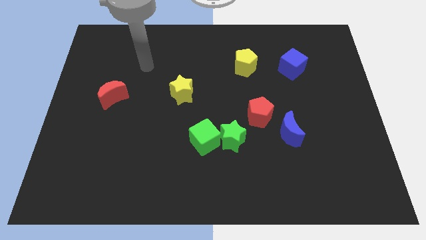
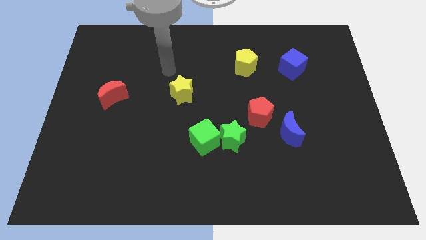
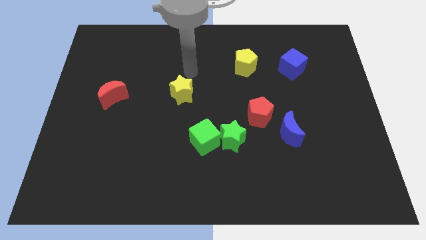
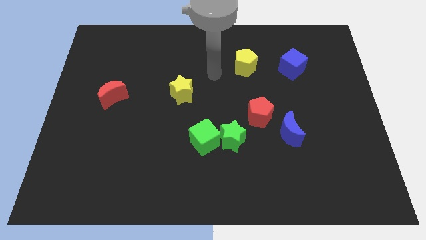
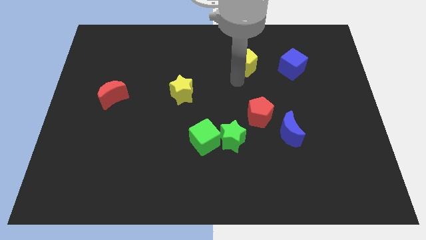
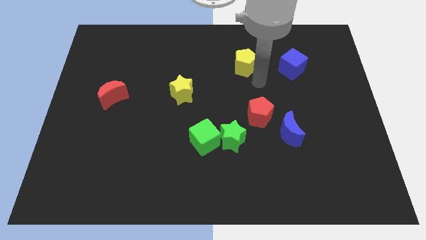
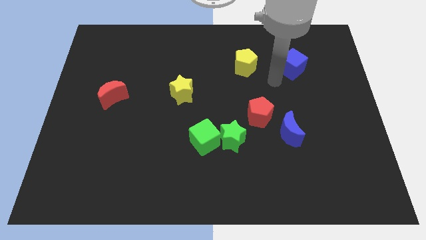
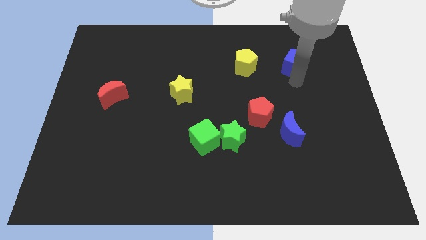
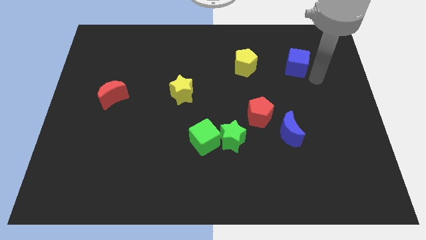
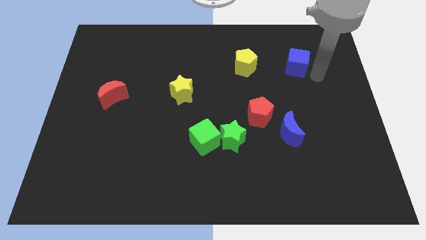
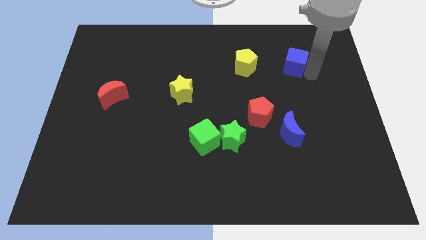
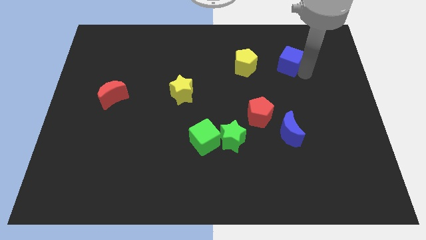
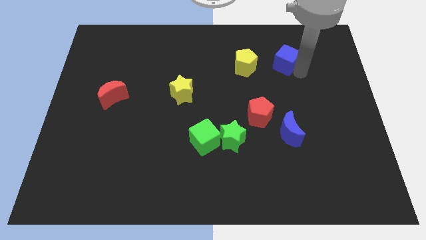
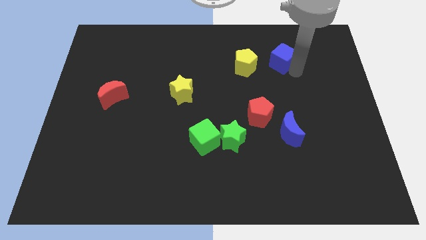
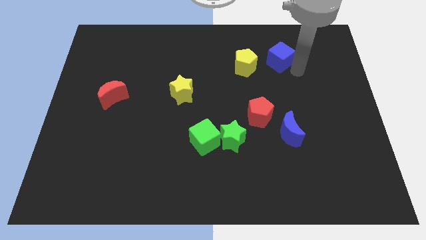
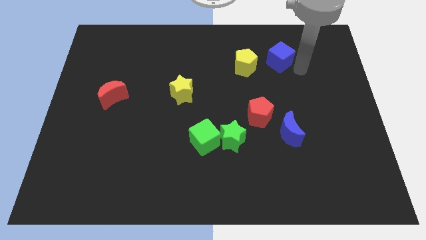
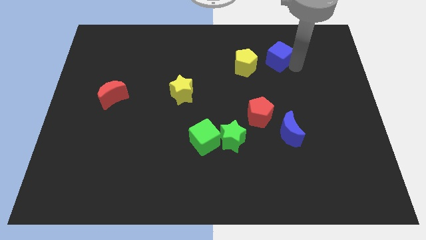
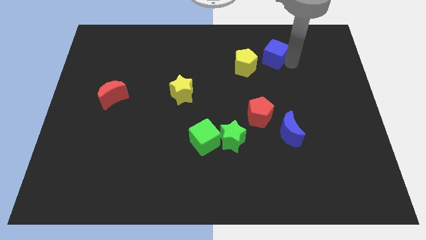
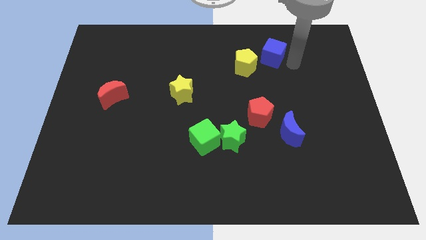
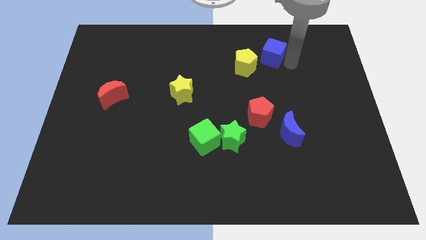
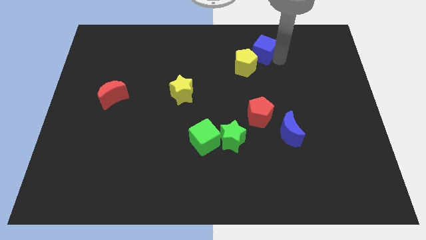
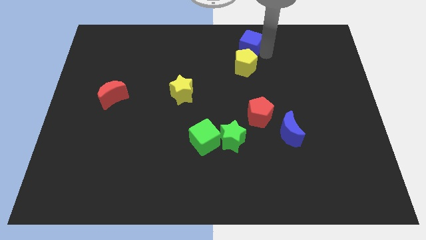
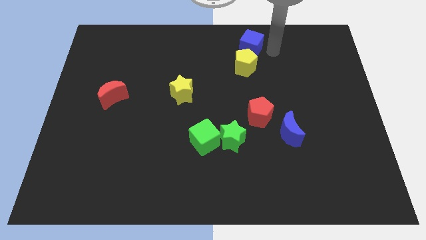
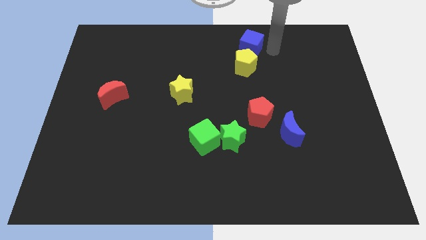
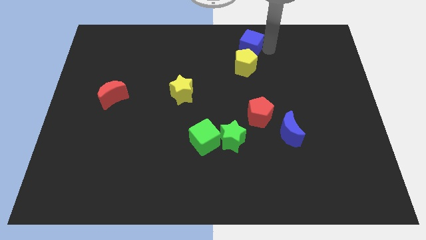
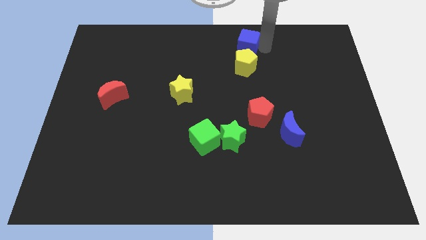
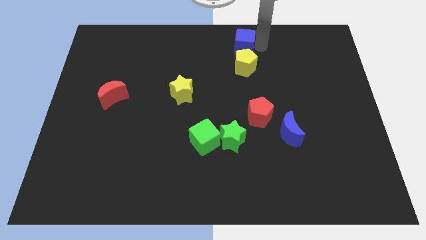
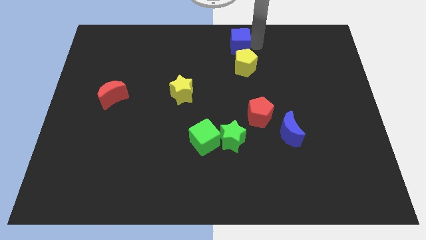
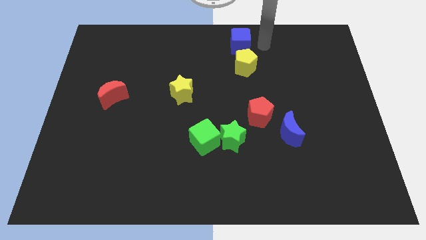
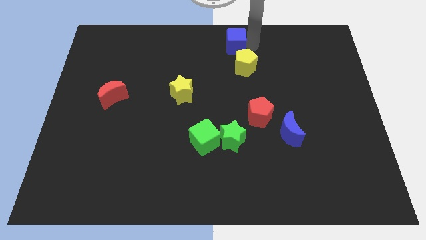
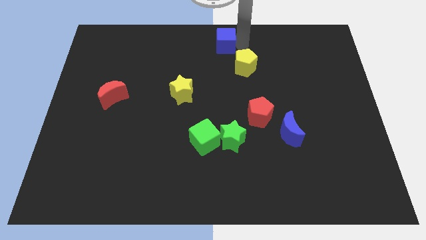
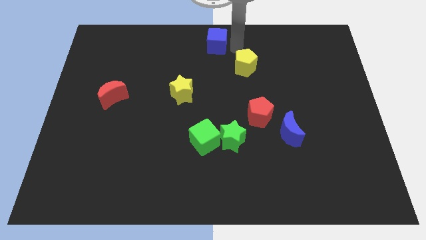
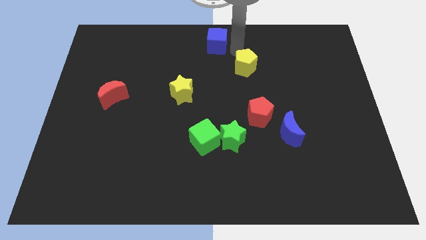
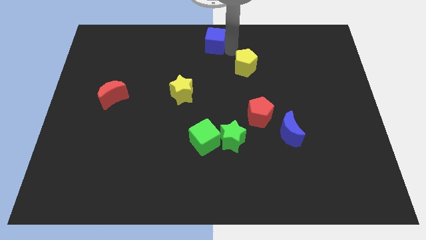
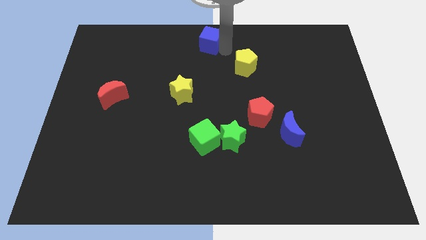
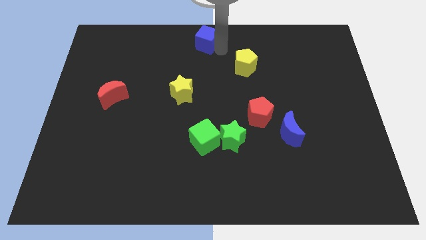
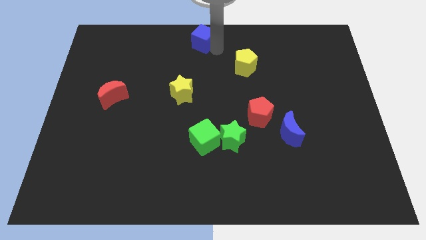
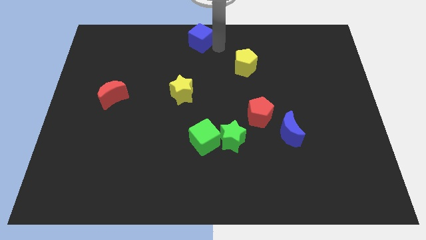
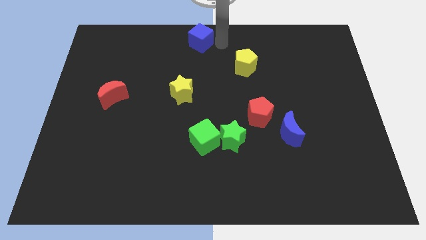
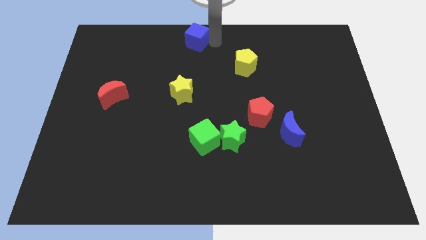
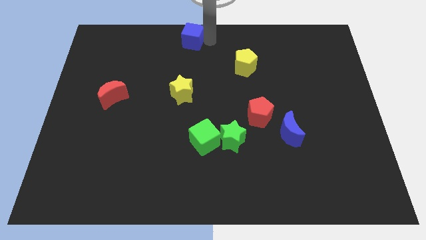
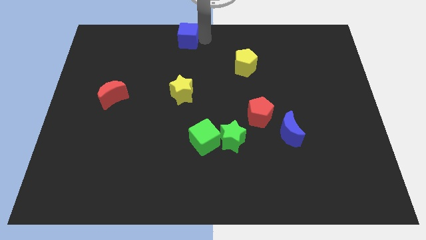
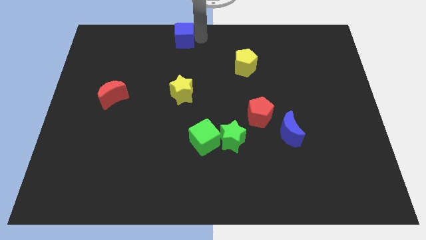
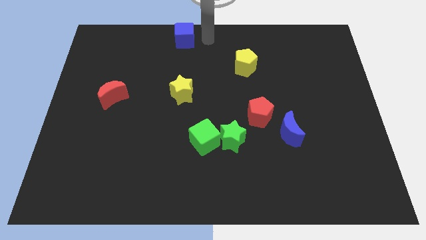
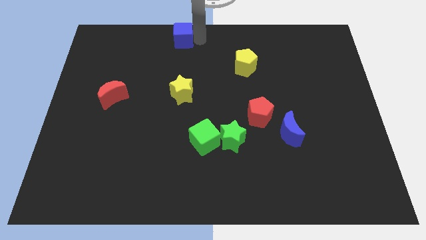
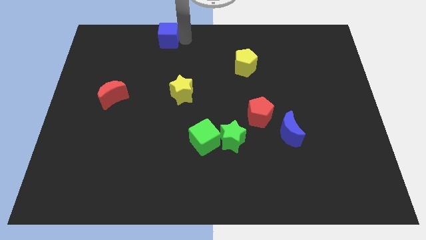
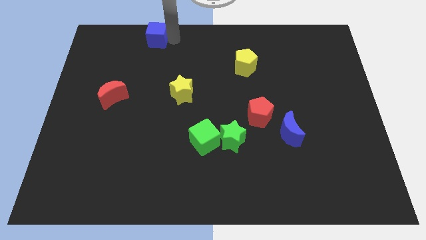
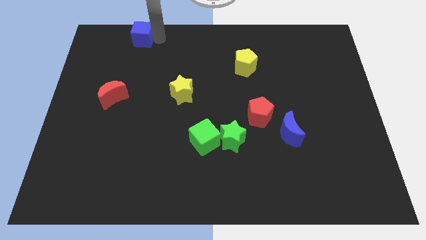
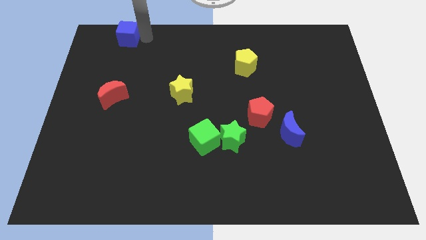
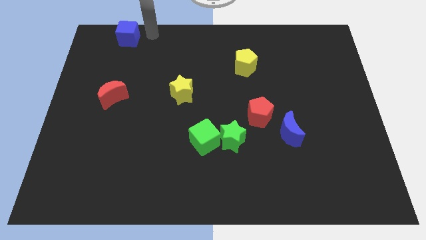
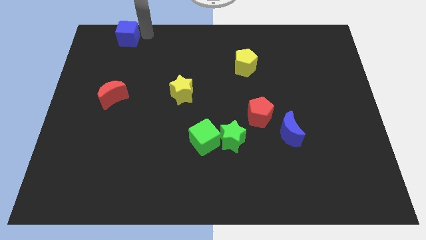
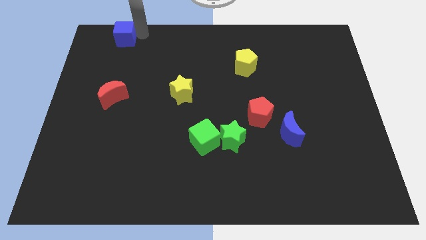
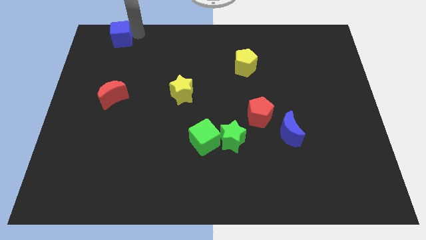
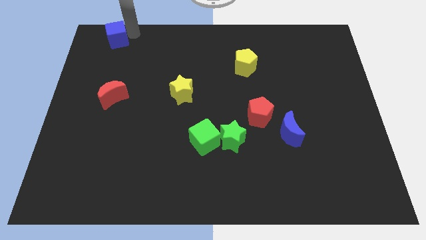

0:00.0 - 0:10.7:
move the blue cube to the top left

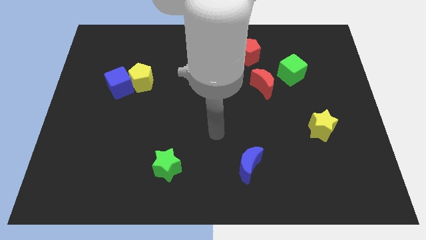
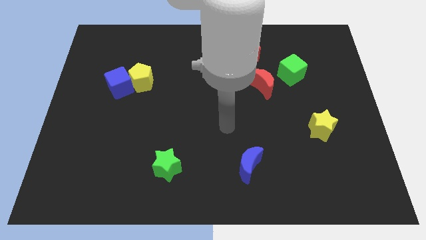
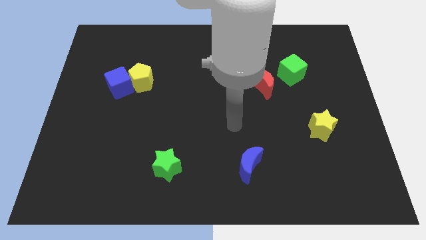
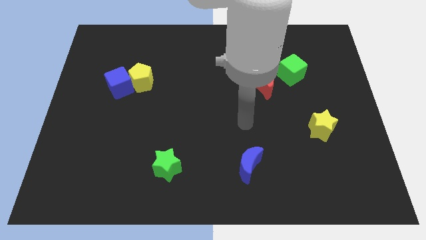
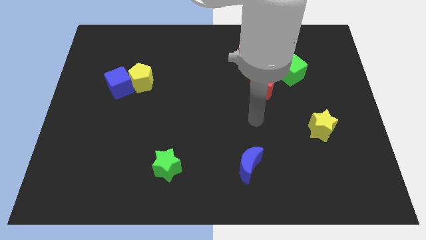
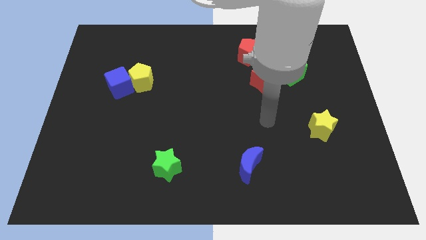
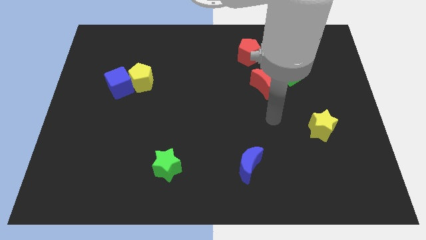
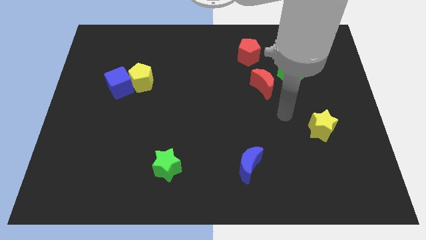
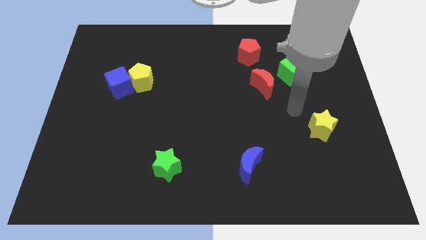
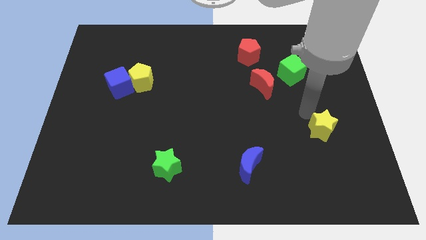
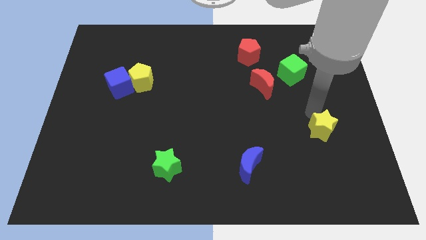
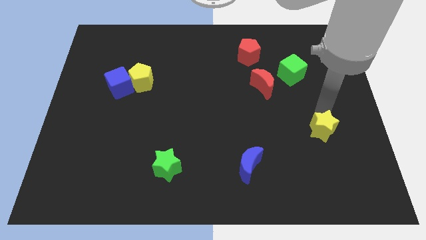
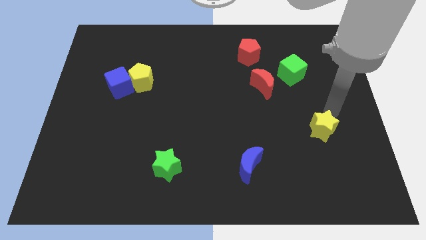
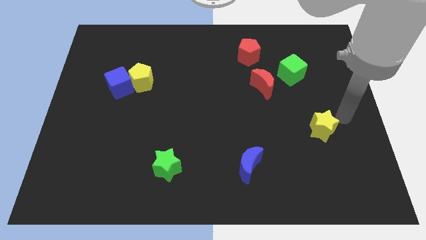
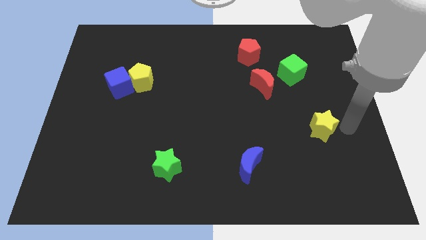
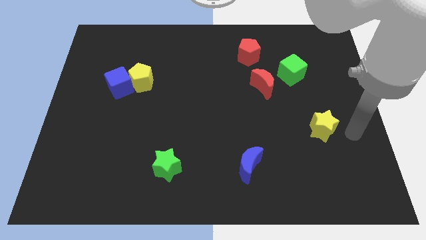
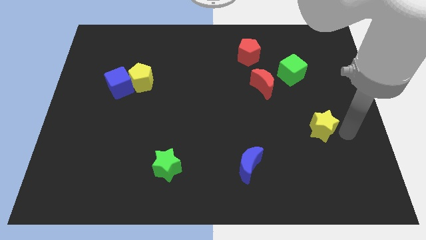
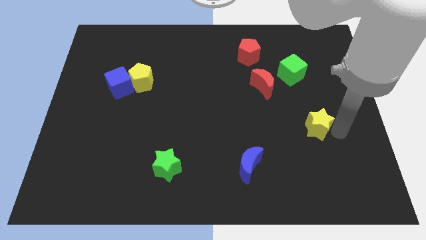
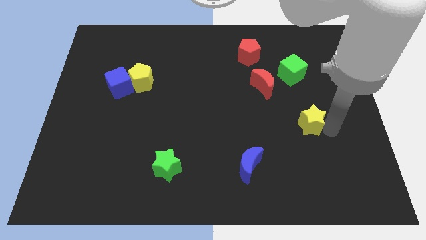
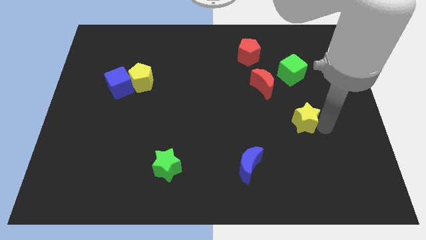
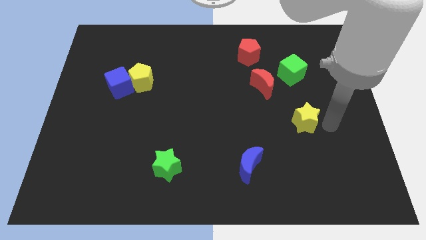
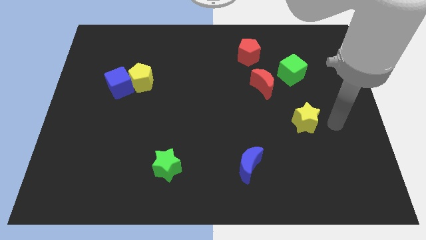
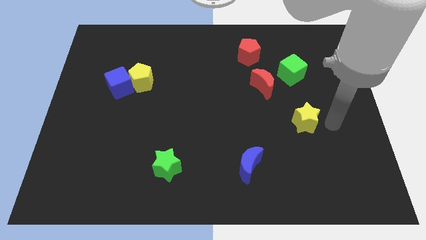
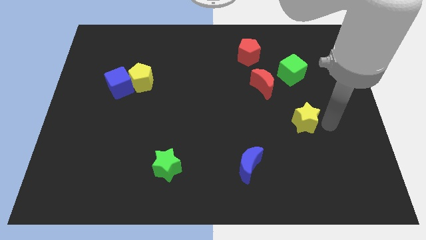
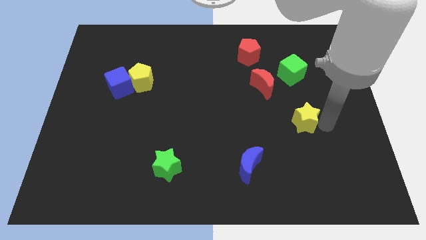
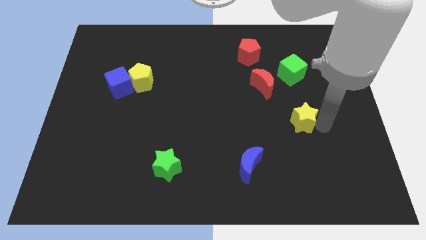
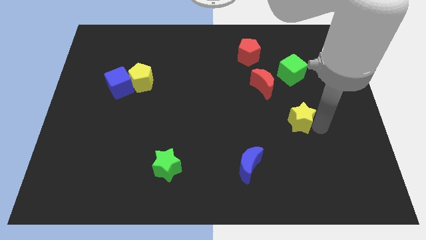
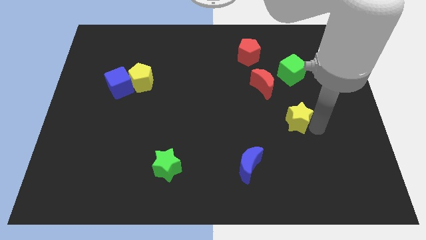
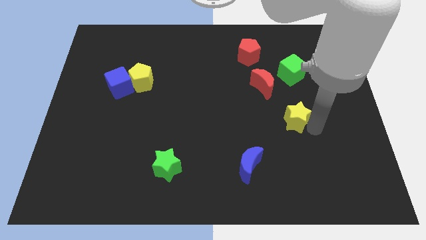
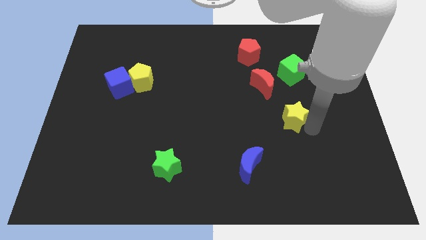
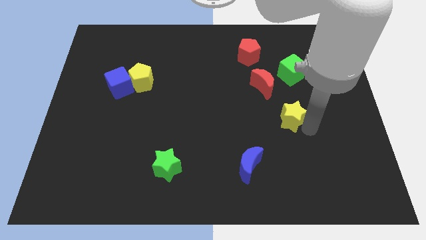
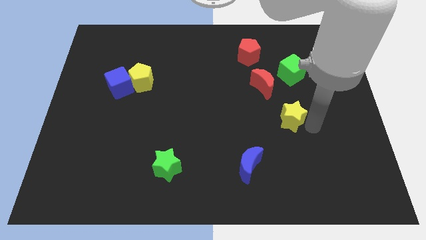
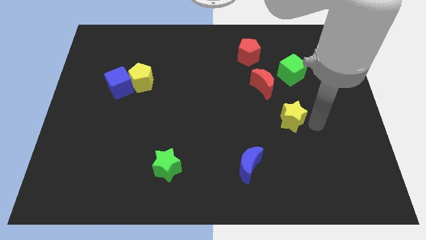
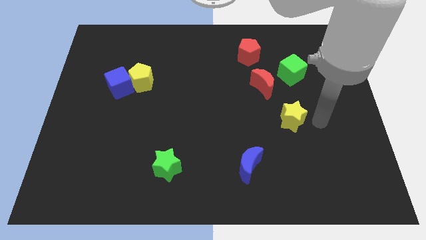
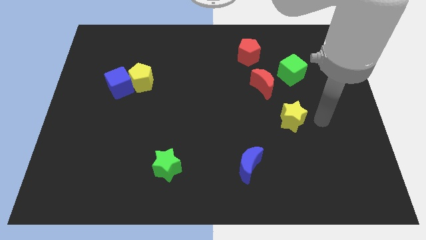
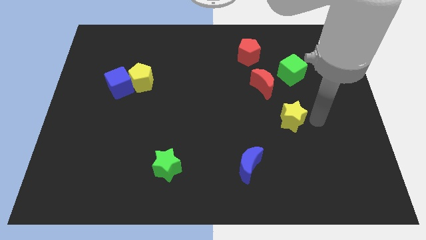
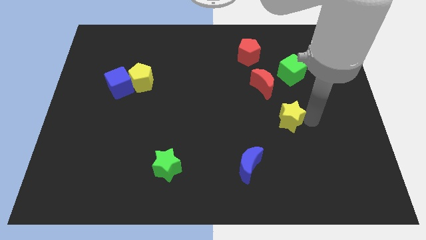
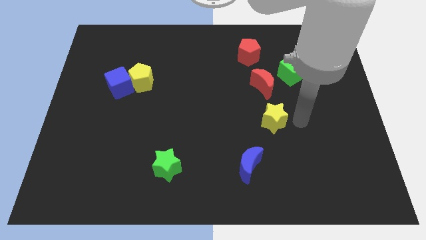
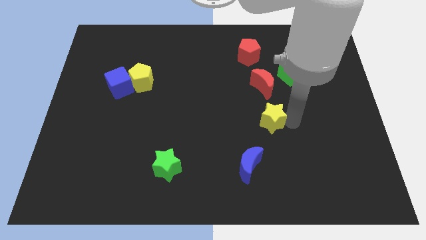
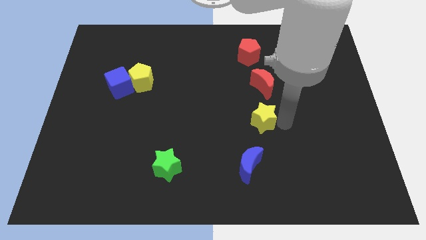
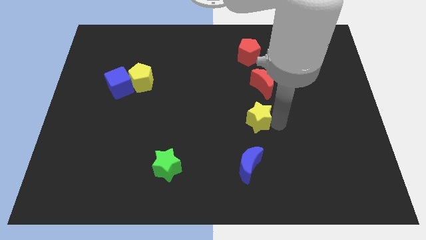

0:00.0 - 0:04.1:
push the yellow star to the middle of the board
